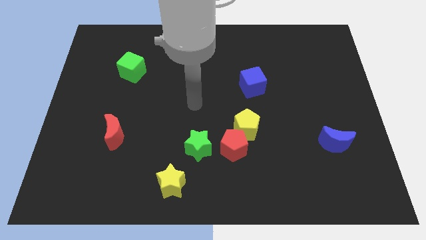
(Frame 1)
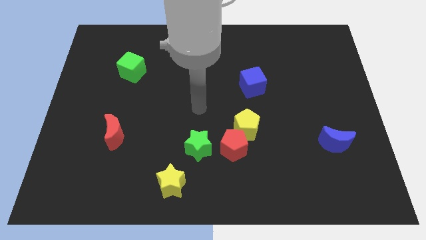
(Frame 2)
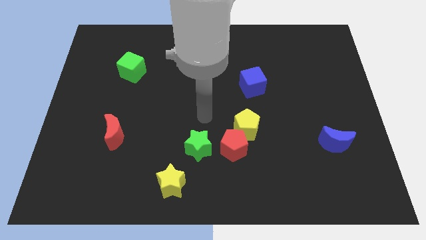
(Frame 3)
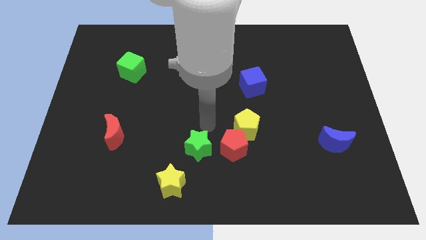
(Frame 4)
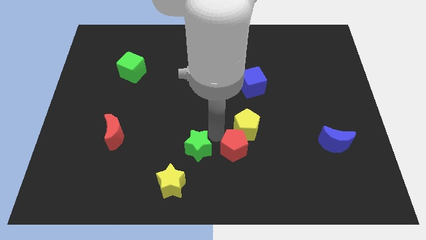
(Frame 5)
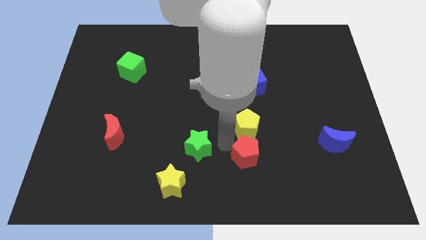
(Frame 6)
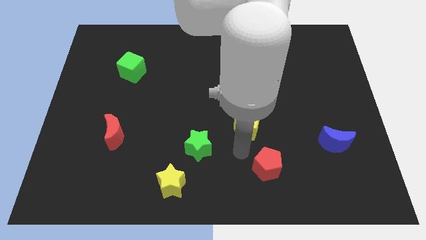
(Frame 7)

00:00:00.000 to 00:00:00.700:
move the yellow pentagon away from the red pentagon

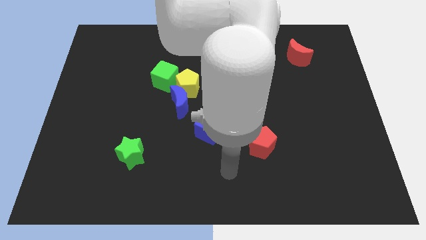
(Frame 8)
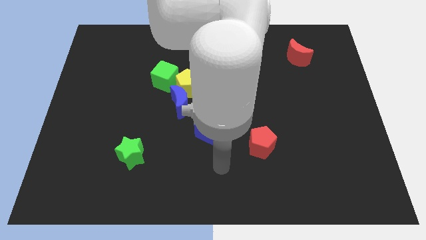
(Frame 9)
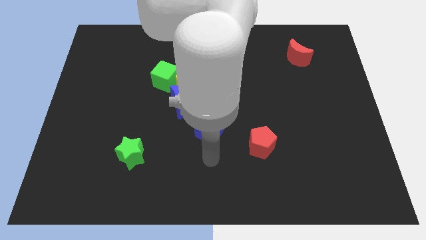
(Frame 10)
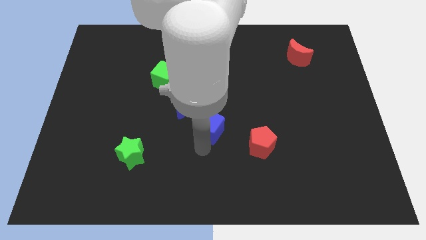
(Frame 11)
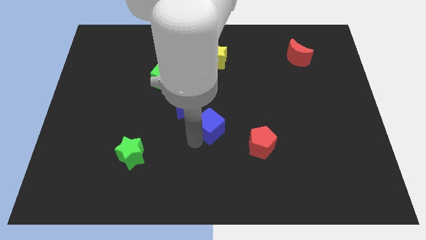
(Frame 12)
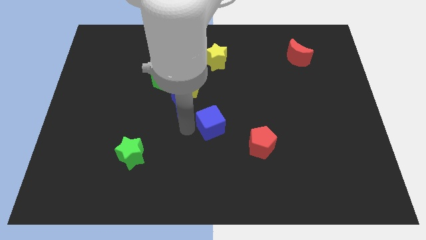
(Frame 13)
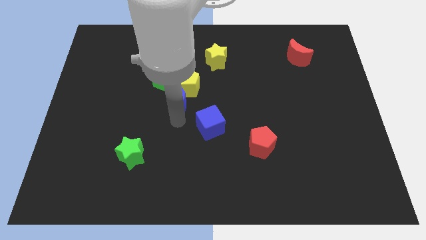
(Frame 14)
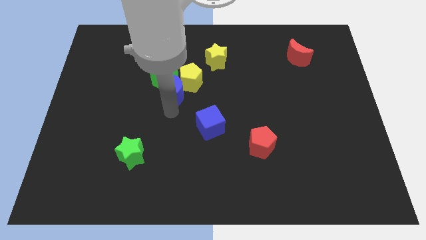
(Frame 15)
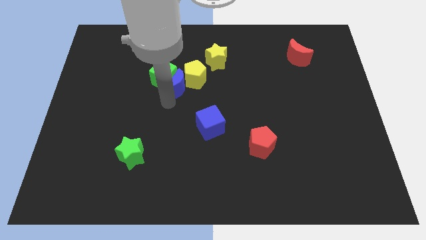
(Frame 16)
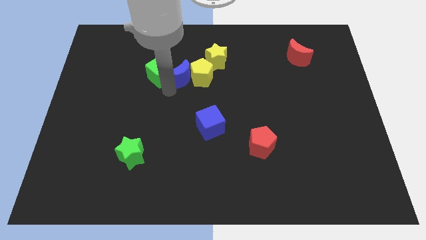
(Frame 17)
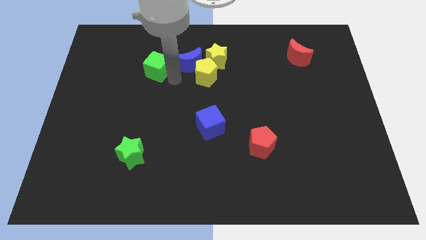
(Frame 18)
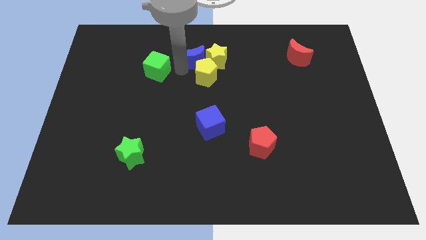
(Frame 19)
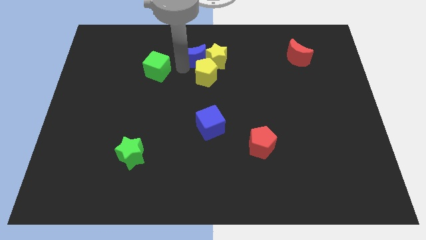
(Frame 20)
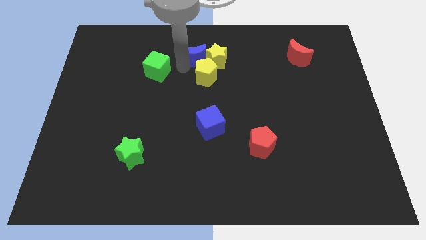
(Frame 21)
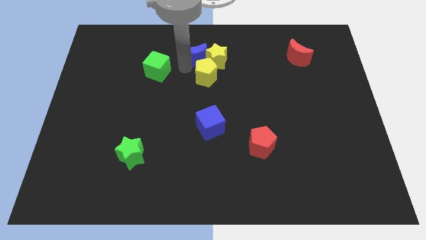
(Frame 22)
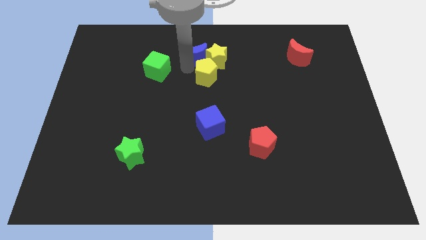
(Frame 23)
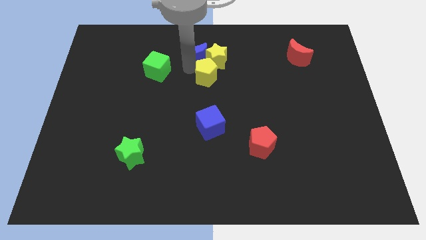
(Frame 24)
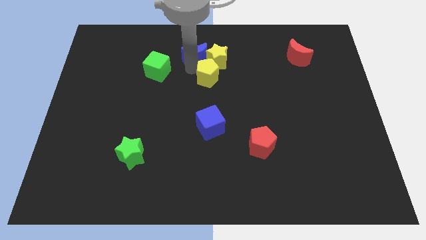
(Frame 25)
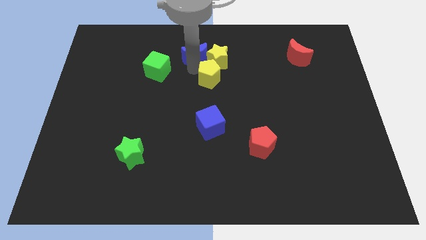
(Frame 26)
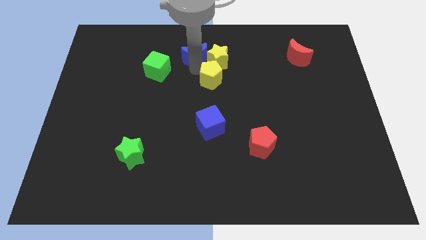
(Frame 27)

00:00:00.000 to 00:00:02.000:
separate the yellow pentagon from the blue moon and green cube

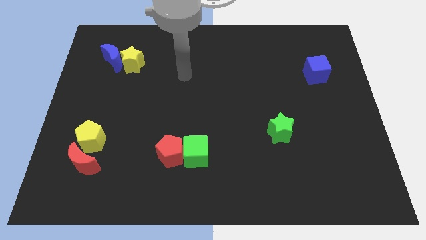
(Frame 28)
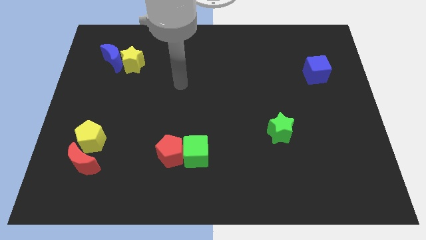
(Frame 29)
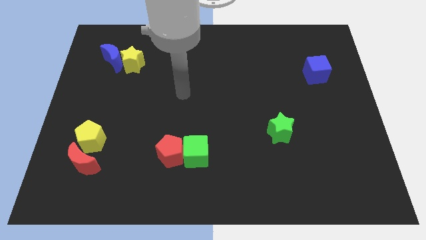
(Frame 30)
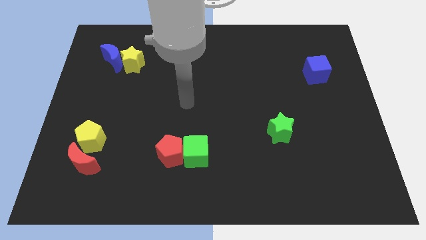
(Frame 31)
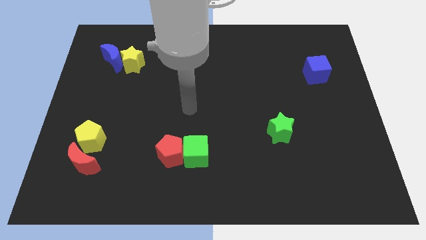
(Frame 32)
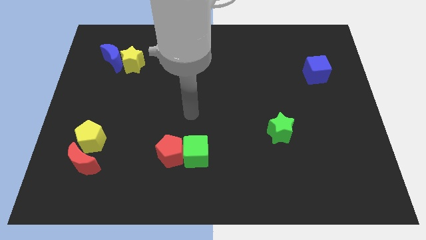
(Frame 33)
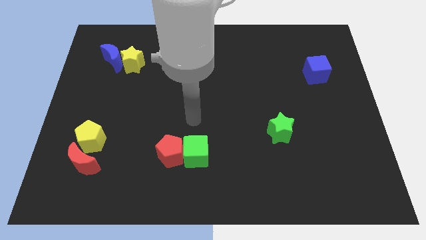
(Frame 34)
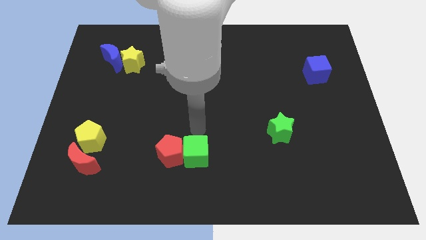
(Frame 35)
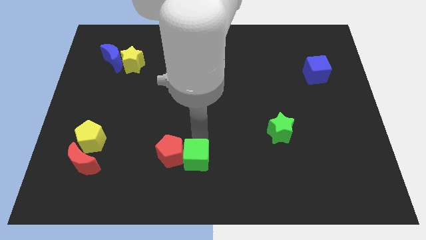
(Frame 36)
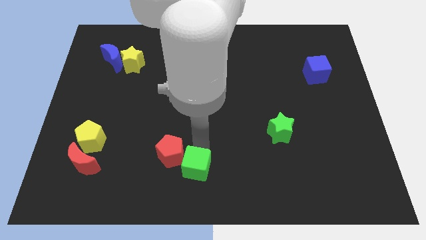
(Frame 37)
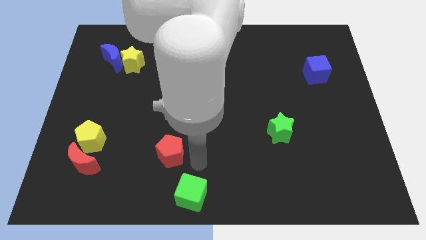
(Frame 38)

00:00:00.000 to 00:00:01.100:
move the red pentagon away from the green cube

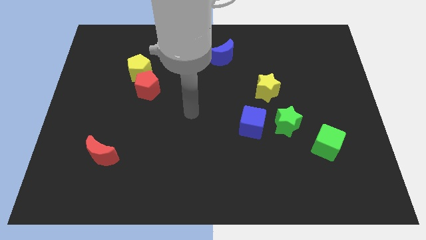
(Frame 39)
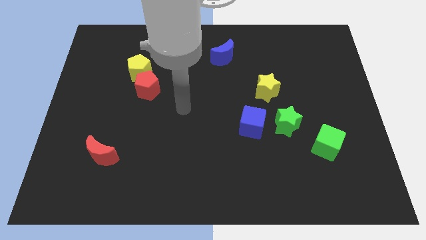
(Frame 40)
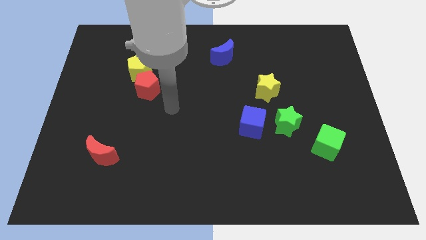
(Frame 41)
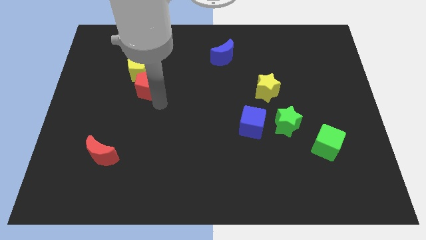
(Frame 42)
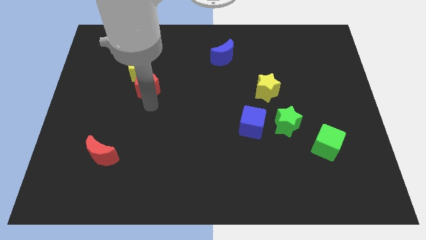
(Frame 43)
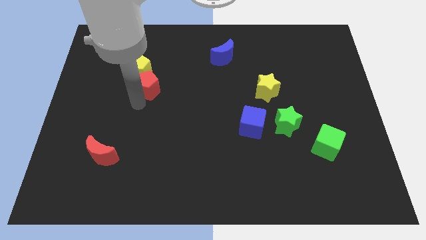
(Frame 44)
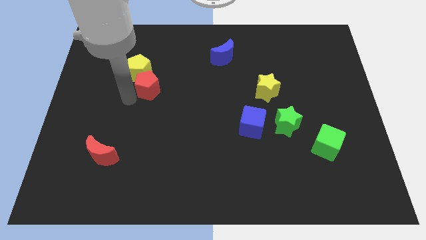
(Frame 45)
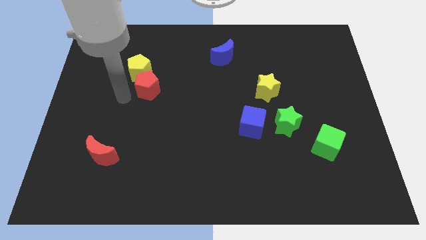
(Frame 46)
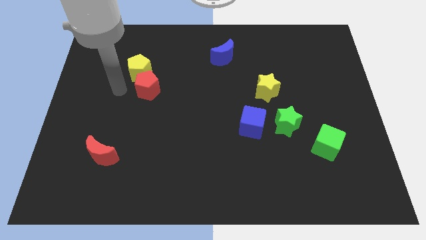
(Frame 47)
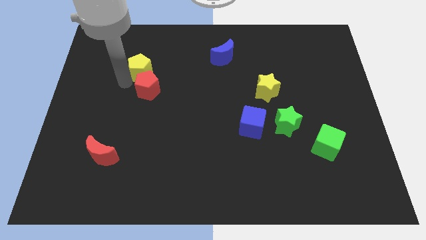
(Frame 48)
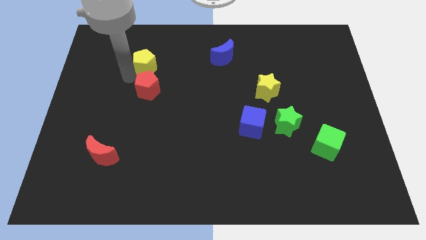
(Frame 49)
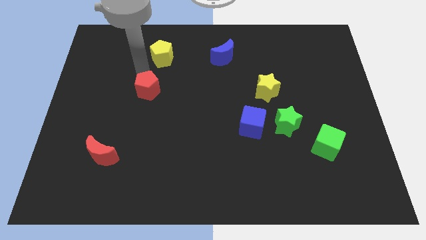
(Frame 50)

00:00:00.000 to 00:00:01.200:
move the red pentagon away from the yellow pentagon

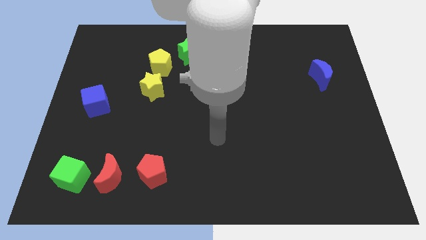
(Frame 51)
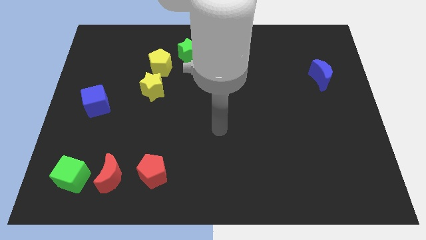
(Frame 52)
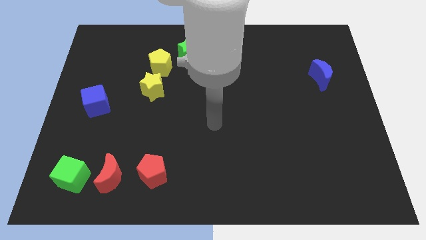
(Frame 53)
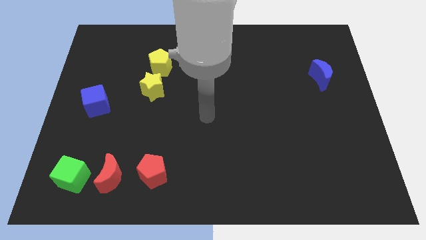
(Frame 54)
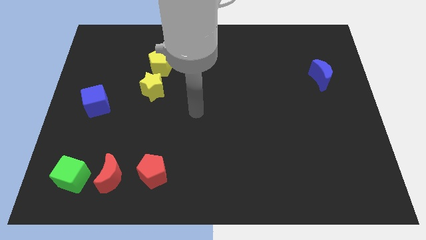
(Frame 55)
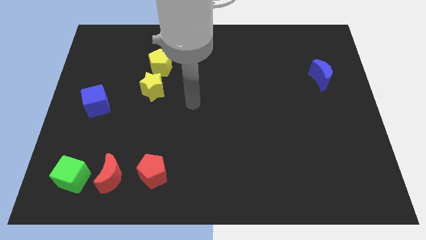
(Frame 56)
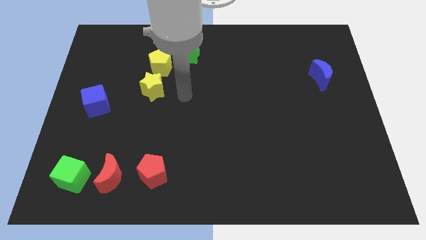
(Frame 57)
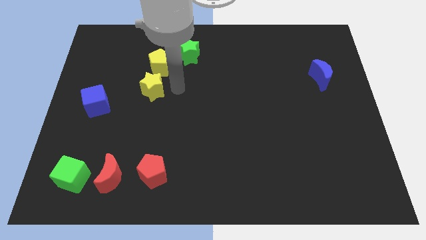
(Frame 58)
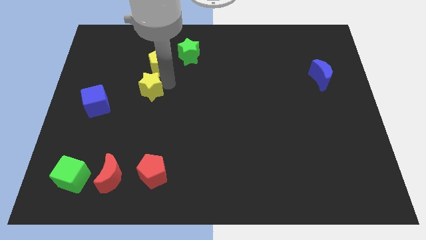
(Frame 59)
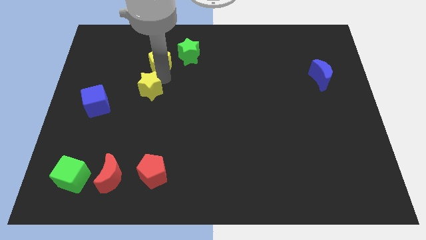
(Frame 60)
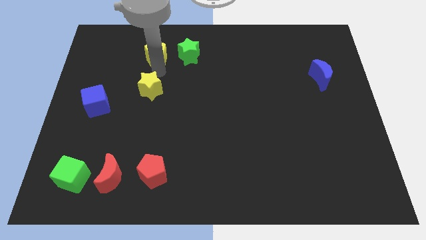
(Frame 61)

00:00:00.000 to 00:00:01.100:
separate the yellow star from the yellow pentagon

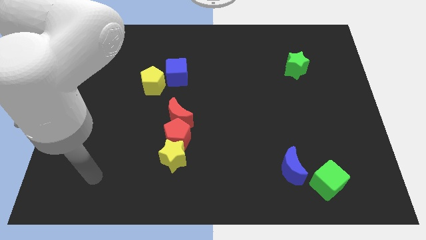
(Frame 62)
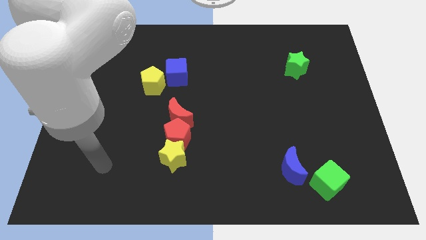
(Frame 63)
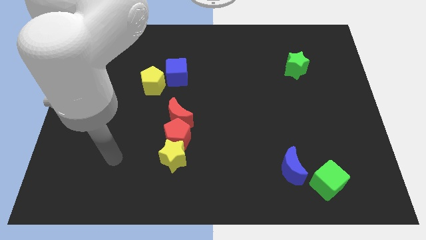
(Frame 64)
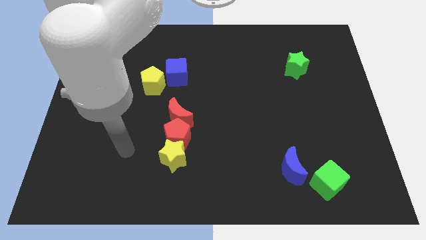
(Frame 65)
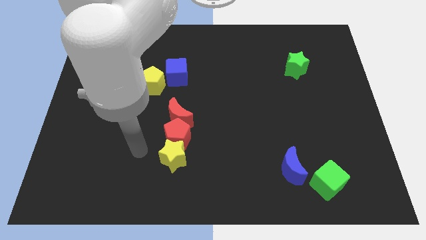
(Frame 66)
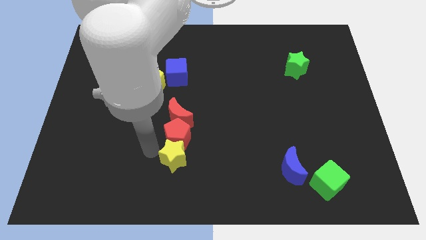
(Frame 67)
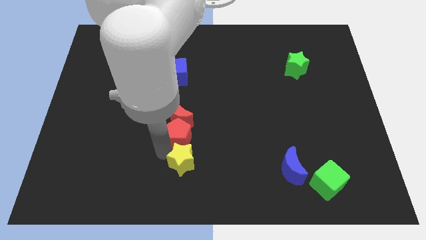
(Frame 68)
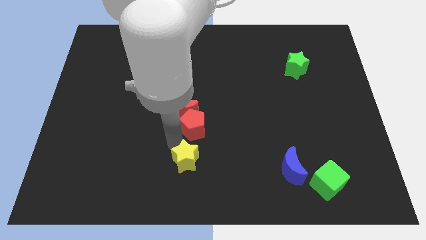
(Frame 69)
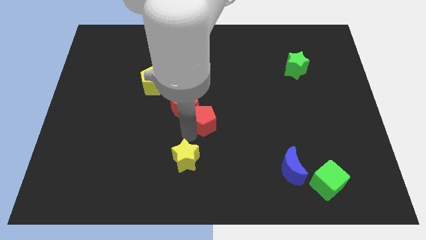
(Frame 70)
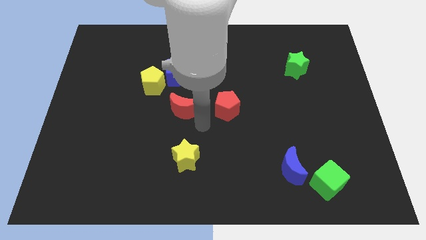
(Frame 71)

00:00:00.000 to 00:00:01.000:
move the red moon away from the red pentagon

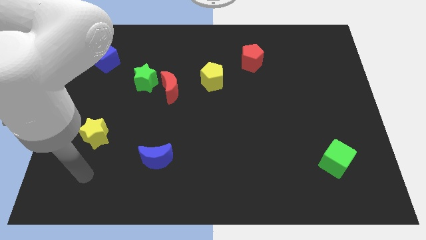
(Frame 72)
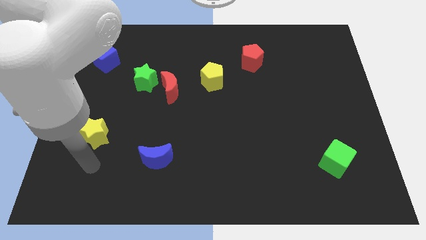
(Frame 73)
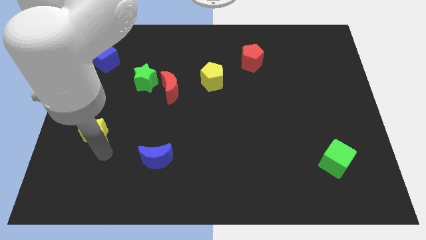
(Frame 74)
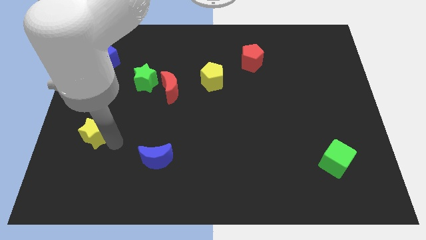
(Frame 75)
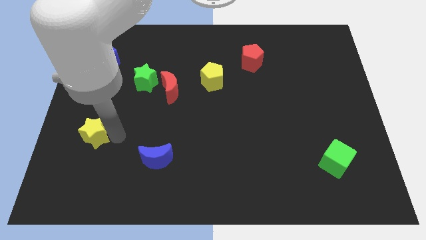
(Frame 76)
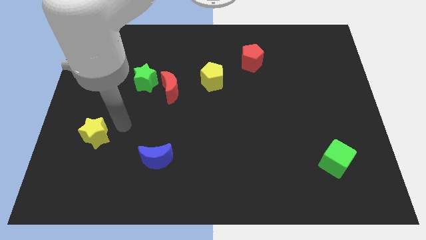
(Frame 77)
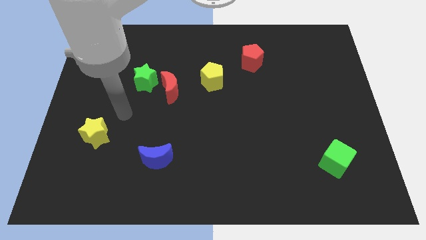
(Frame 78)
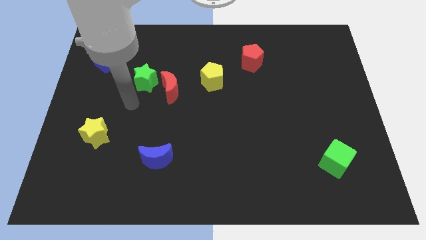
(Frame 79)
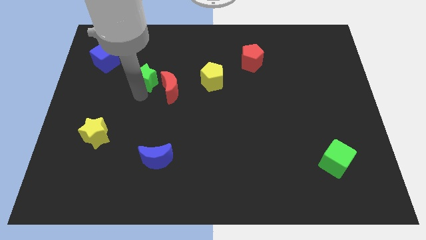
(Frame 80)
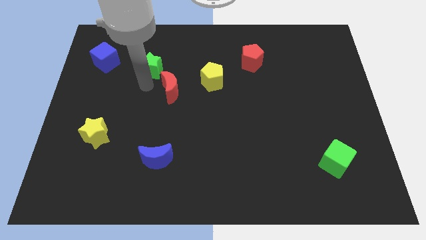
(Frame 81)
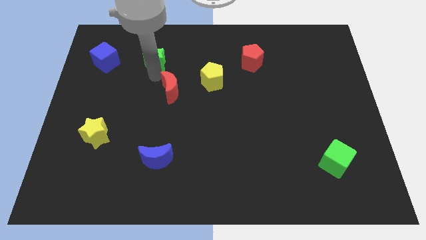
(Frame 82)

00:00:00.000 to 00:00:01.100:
move the red moon away from the green star

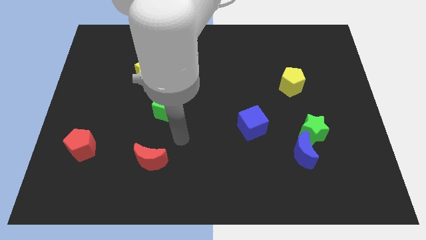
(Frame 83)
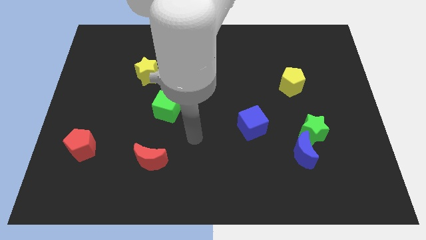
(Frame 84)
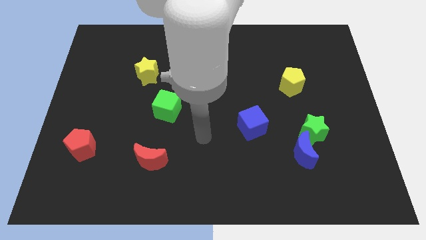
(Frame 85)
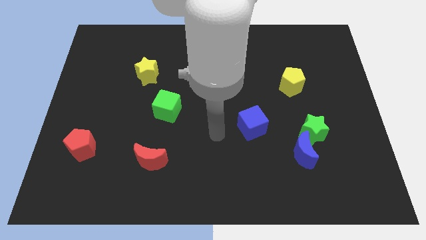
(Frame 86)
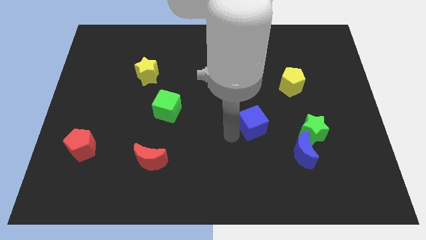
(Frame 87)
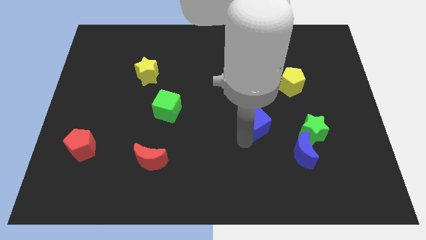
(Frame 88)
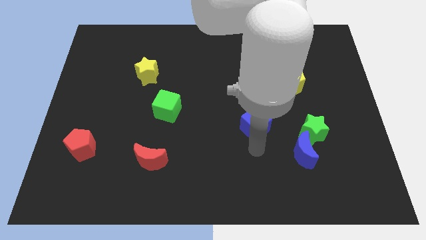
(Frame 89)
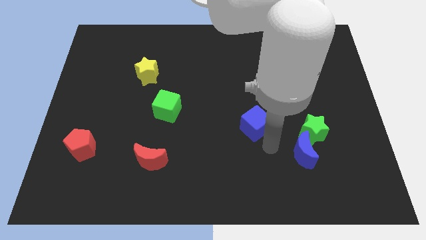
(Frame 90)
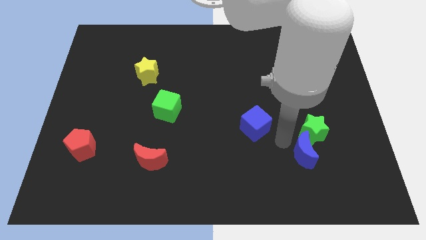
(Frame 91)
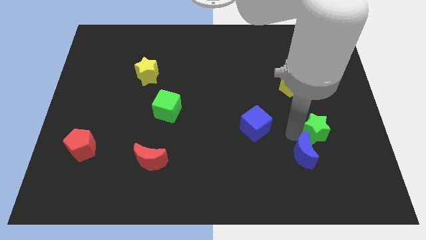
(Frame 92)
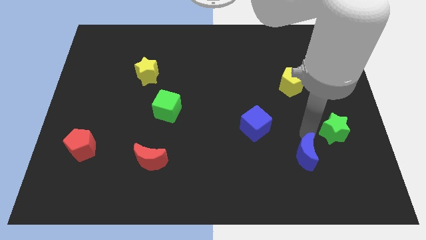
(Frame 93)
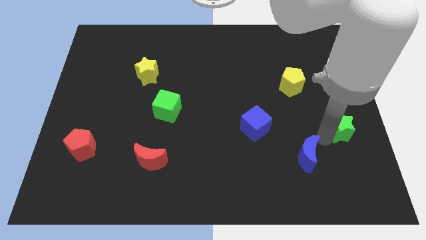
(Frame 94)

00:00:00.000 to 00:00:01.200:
move the blue moon away from the green star
